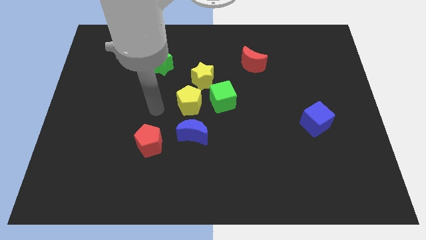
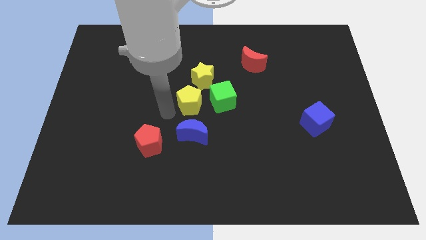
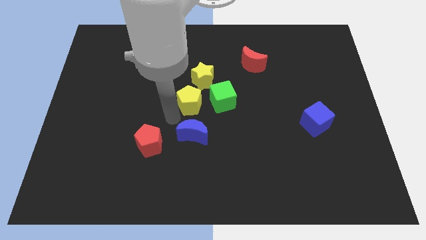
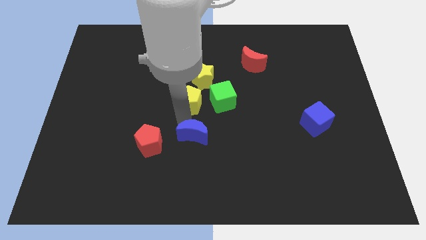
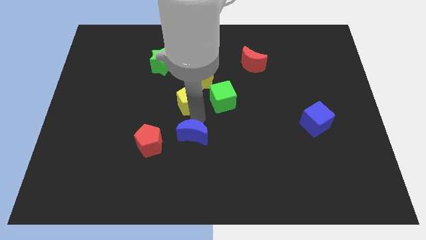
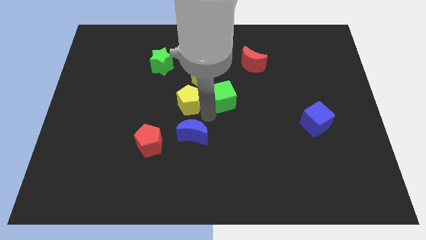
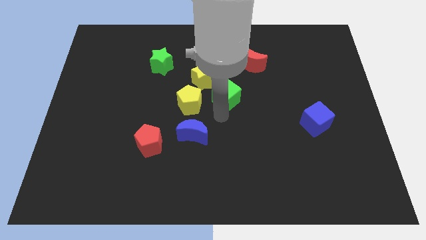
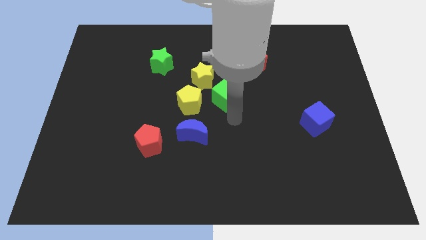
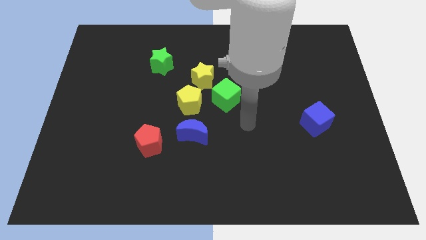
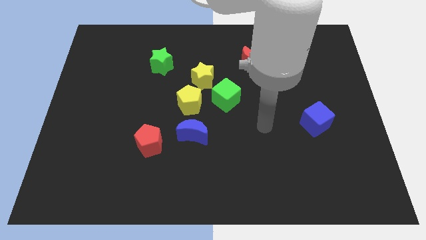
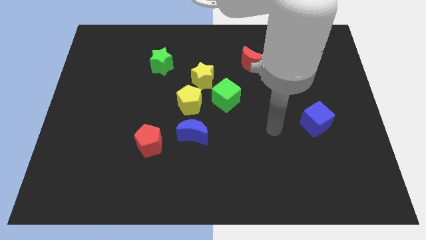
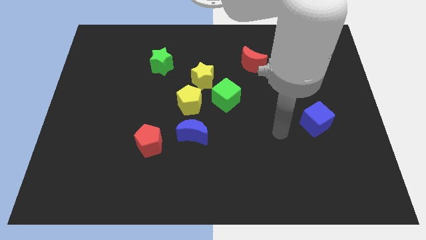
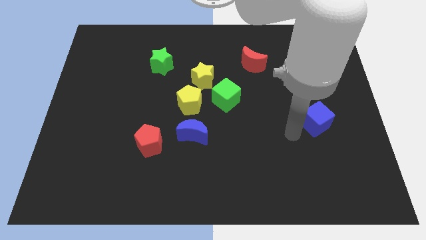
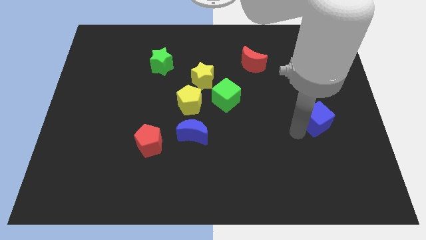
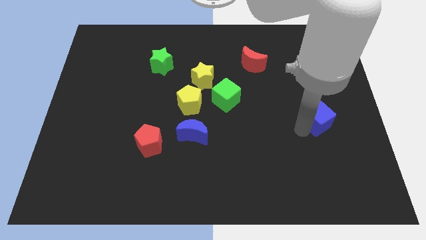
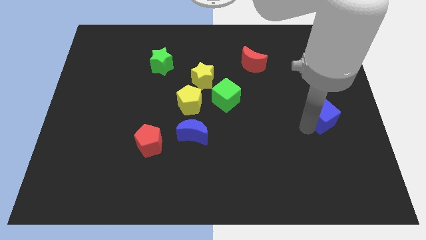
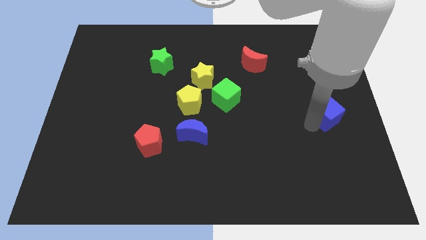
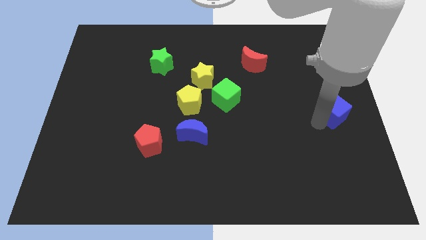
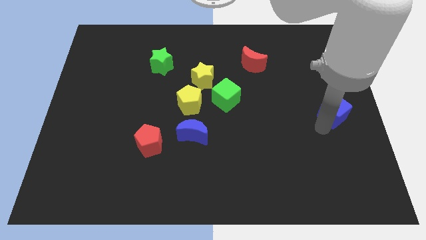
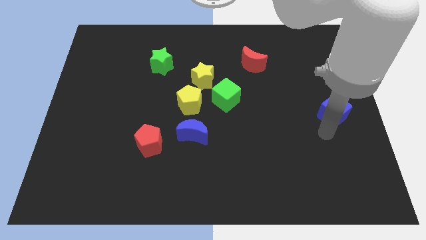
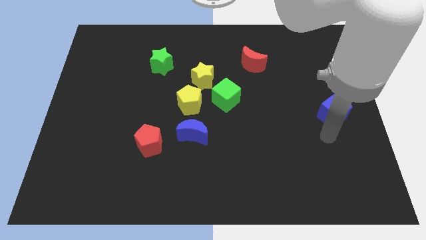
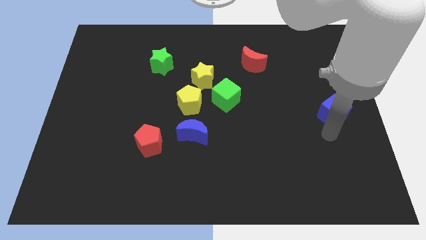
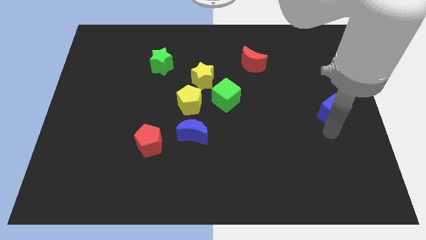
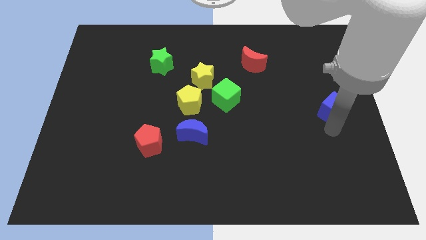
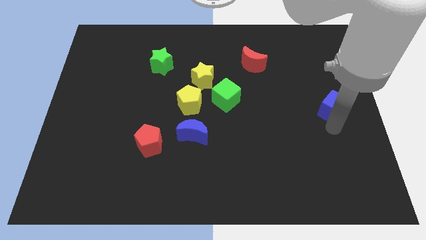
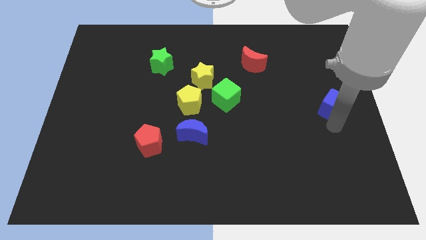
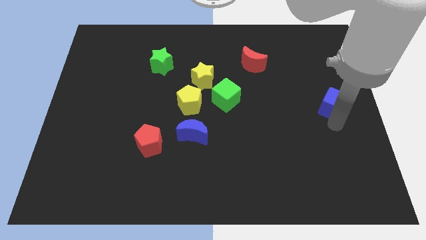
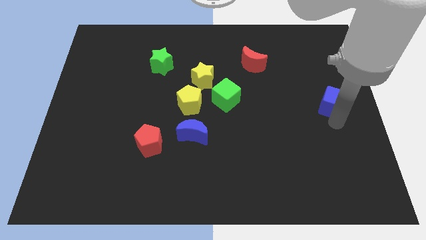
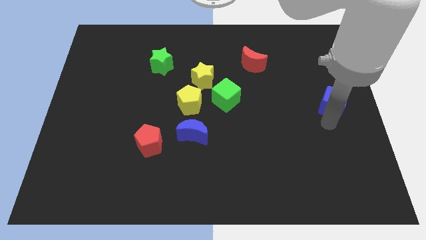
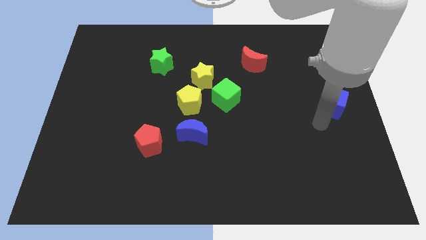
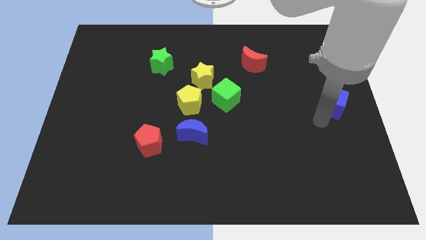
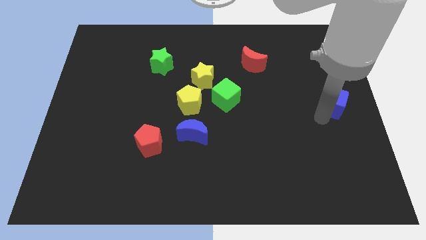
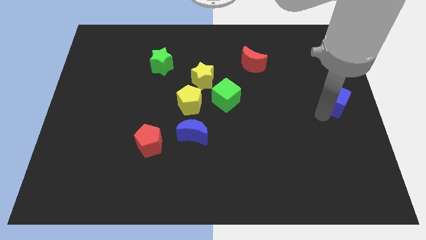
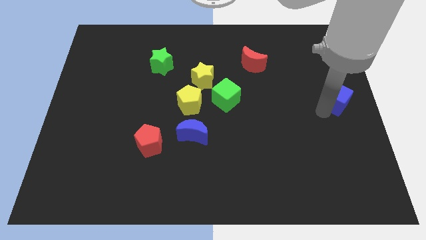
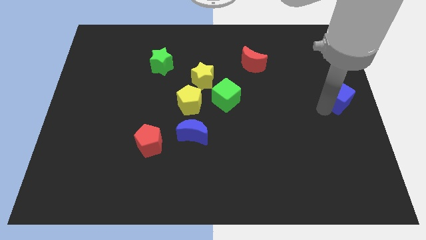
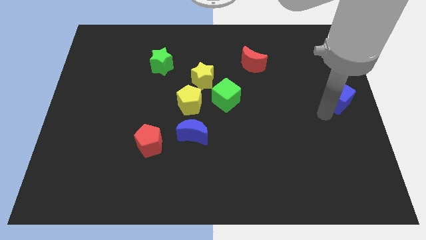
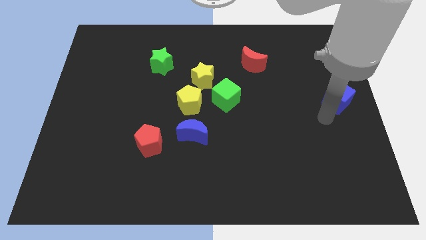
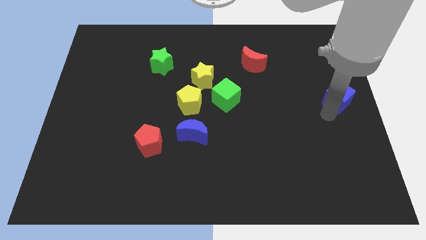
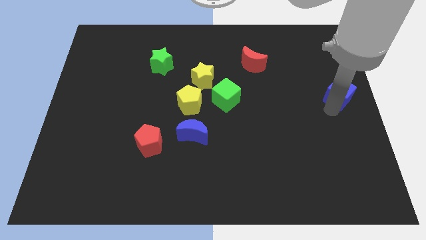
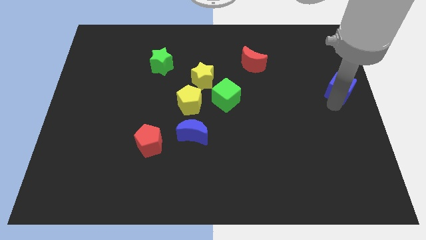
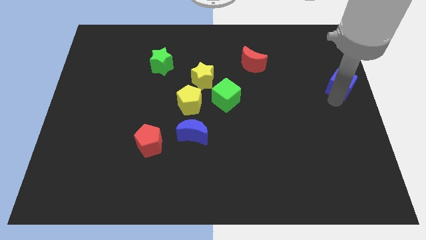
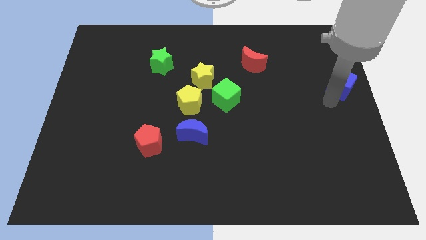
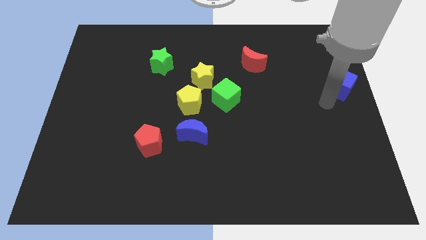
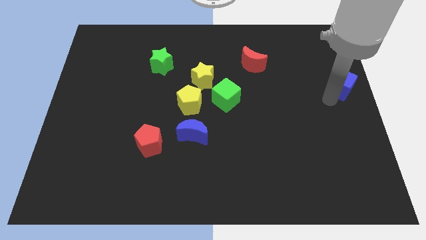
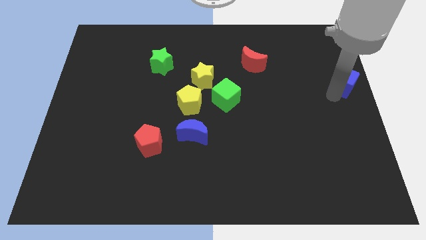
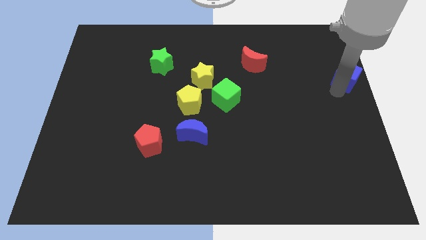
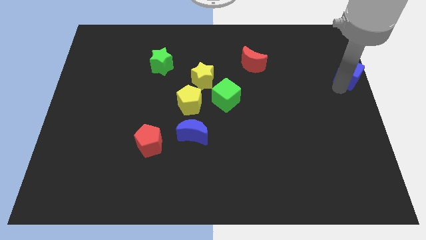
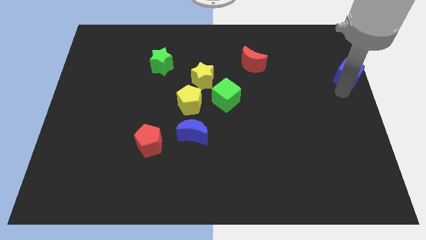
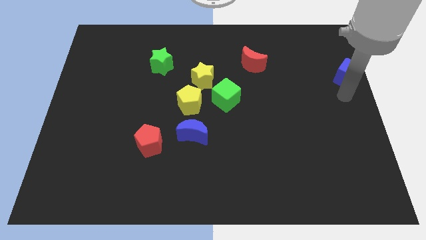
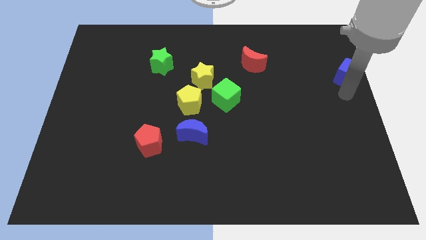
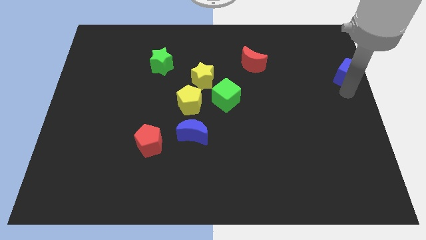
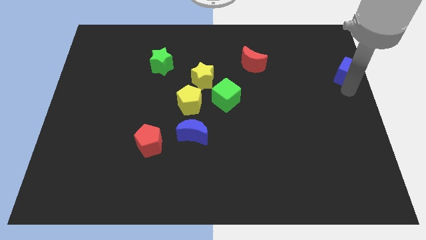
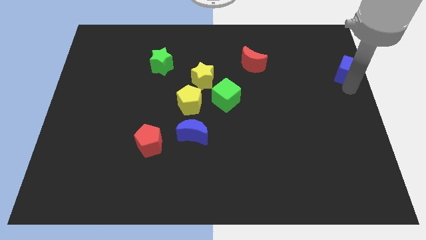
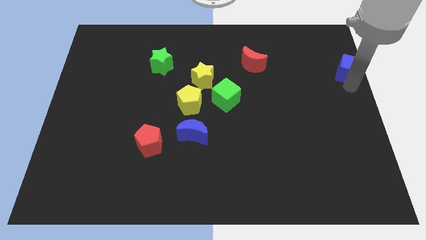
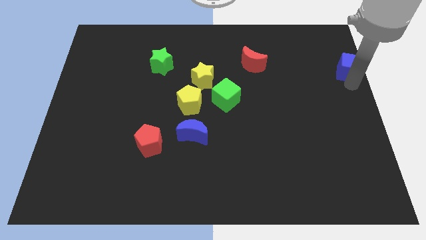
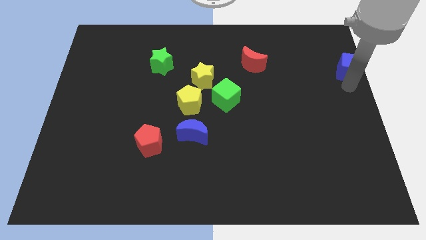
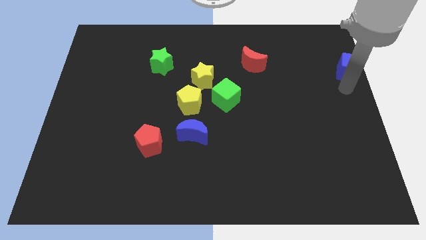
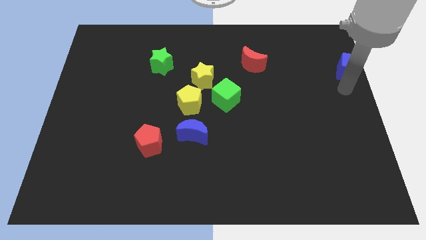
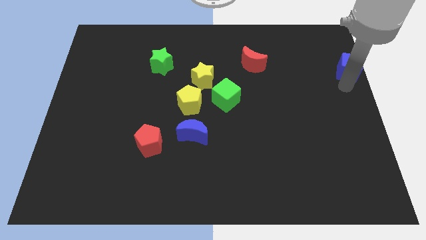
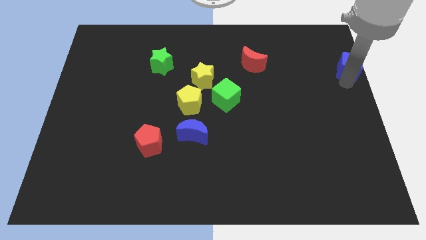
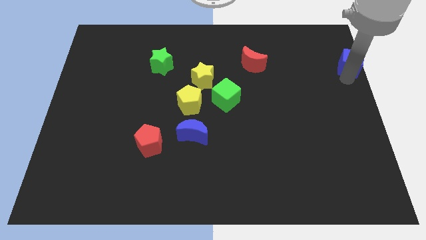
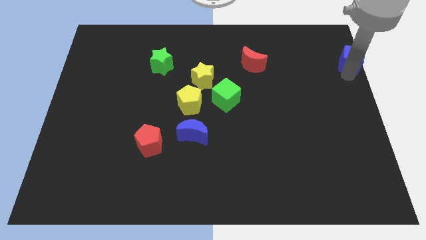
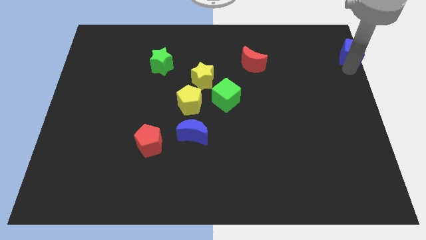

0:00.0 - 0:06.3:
push the blue cube to the top right of the board

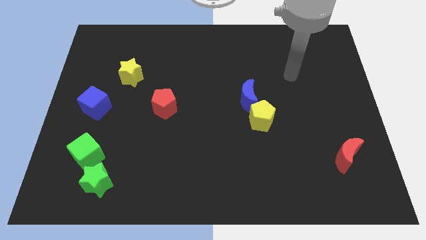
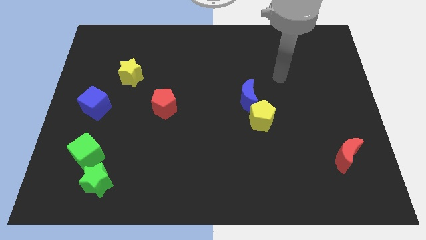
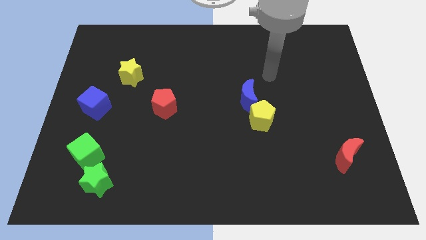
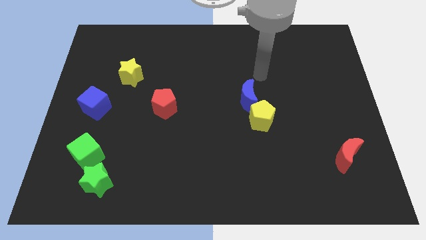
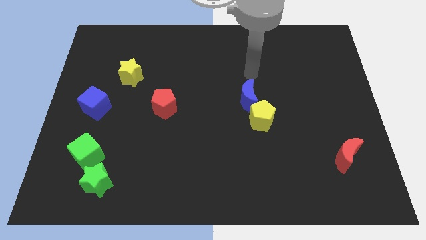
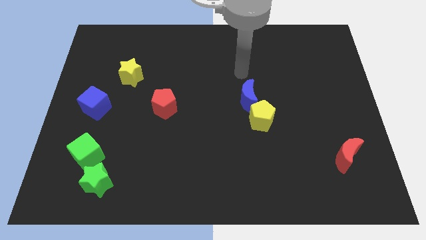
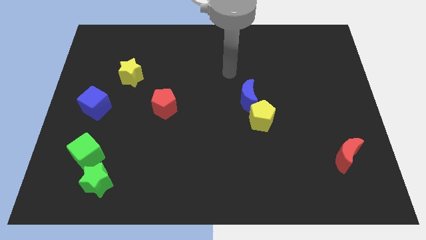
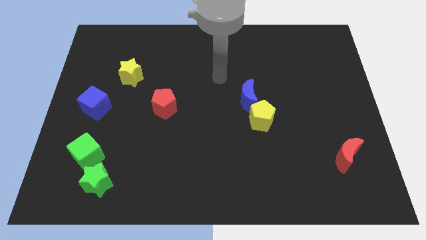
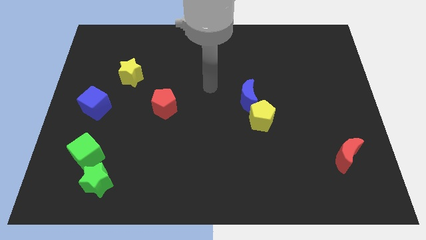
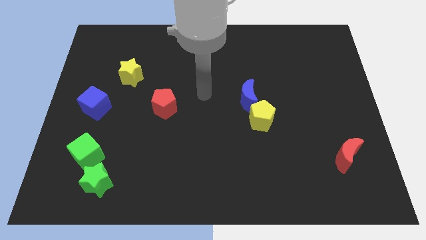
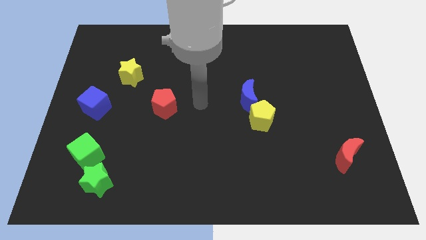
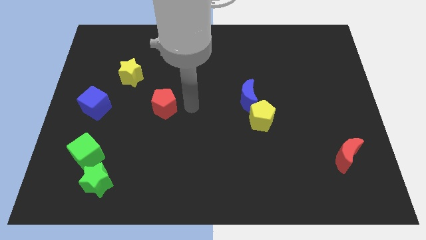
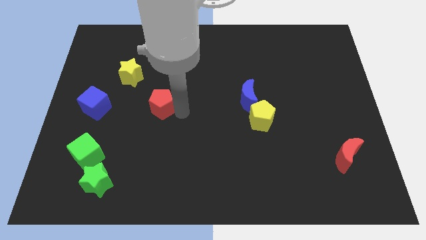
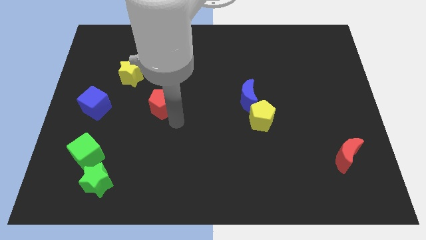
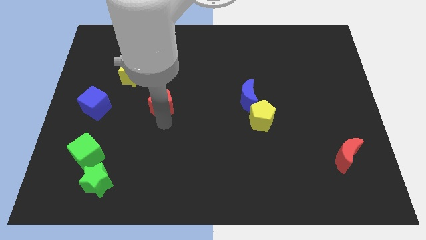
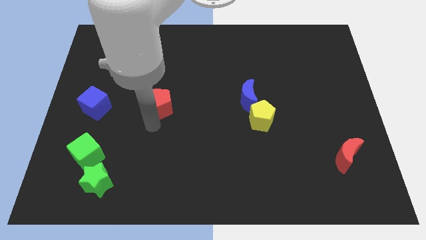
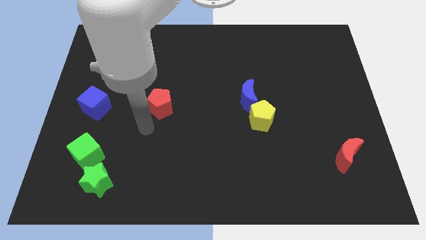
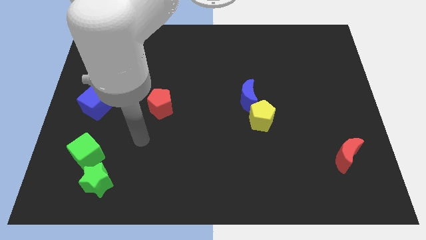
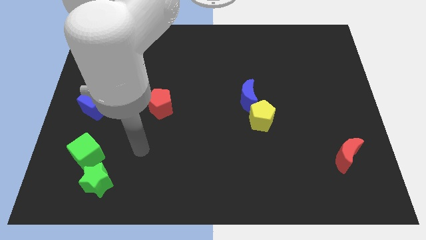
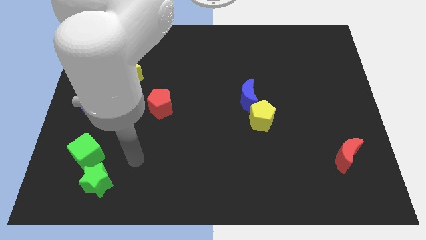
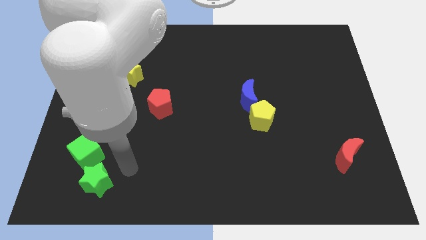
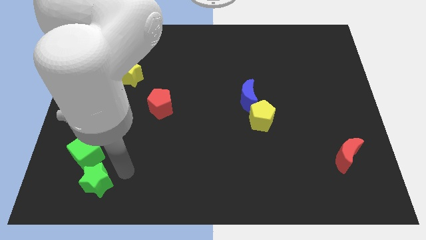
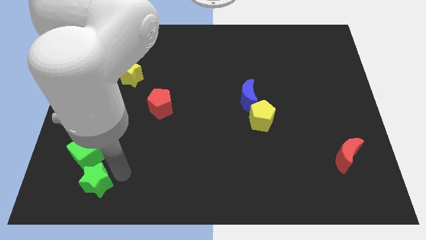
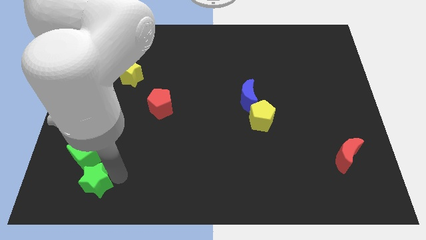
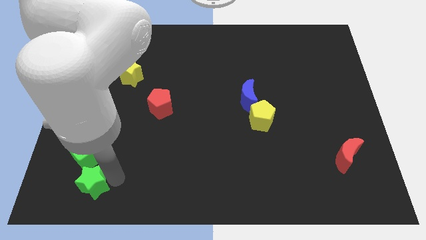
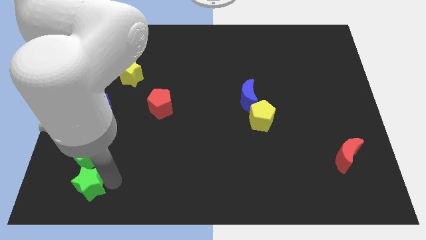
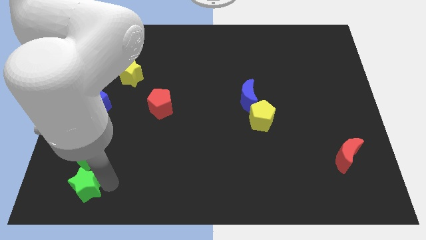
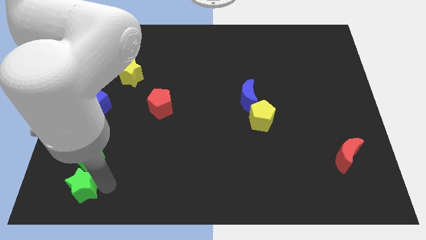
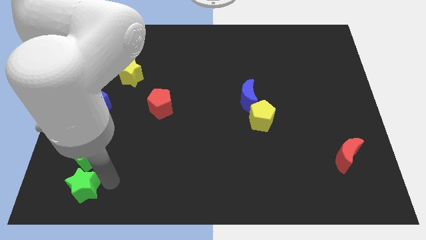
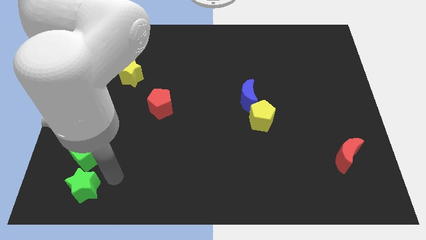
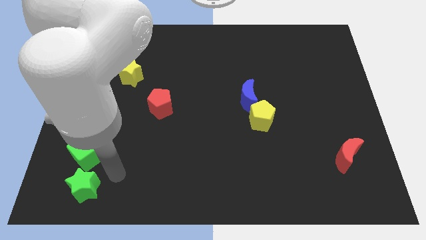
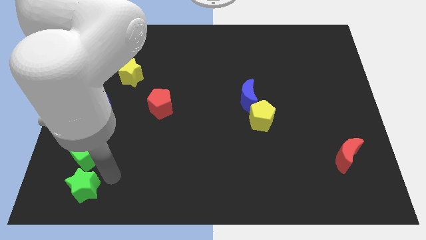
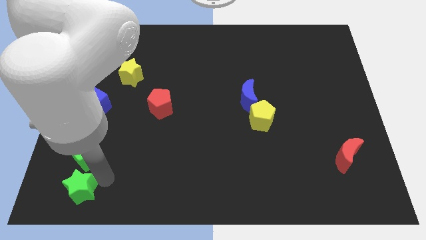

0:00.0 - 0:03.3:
move the green star to the bottom left corner
